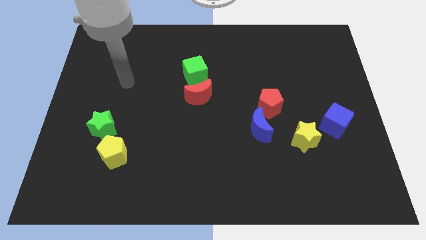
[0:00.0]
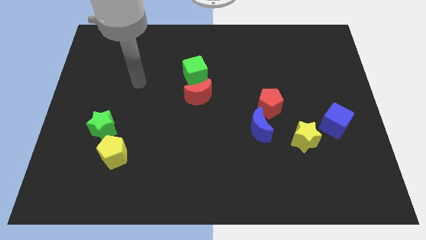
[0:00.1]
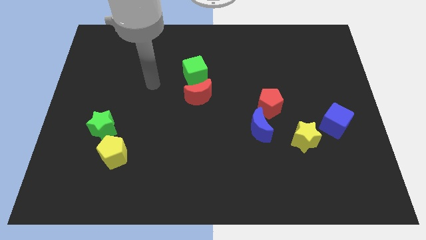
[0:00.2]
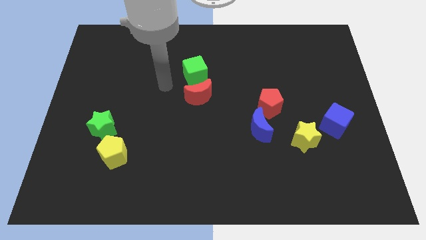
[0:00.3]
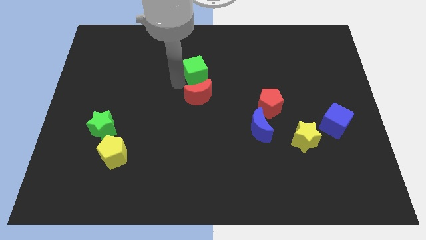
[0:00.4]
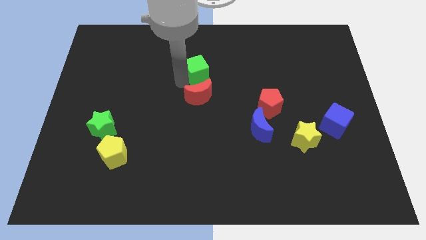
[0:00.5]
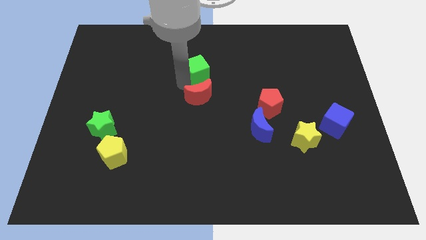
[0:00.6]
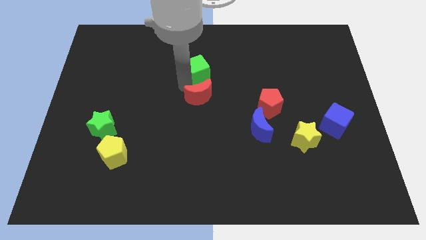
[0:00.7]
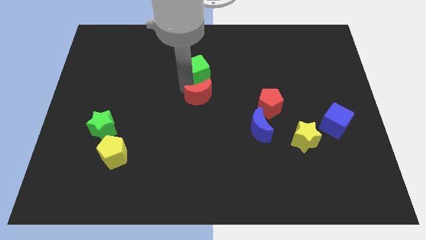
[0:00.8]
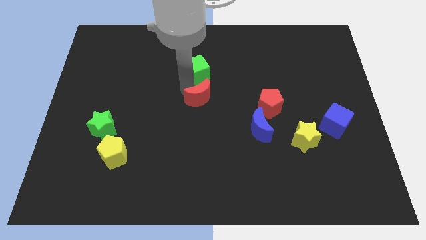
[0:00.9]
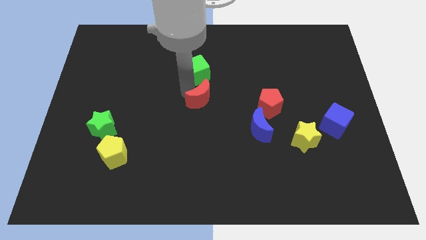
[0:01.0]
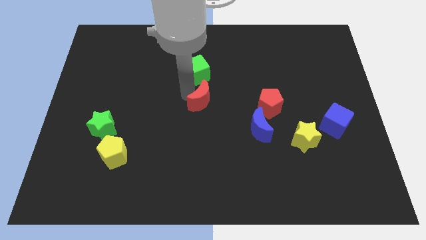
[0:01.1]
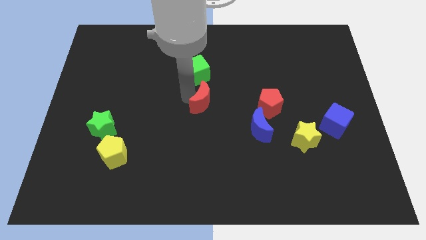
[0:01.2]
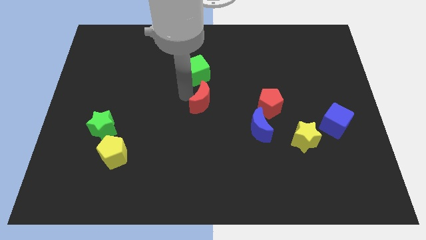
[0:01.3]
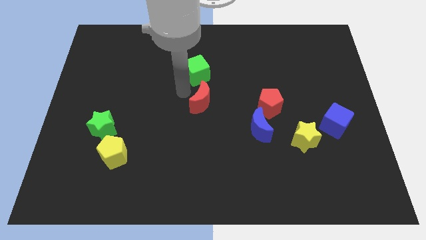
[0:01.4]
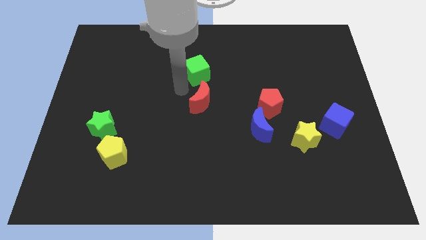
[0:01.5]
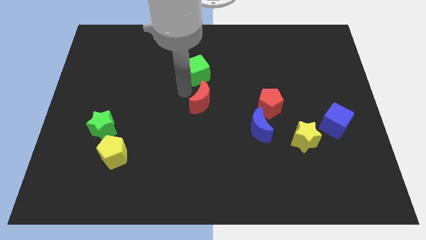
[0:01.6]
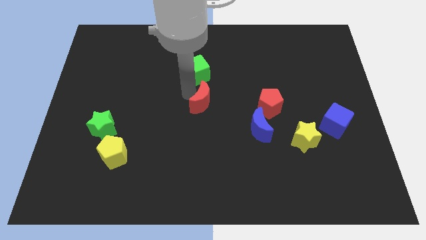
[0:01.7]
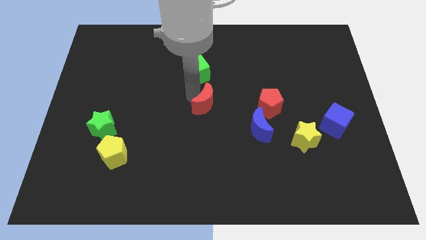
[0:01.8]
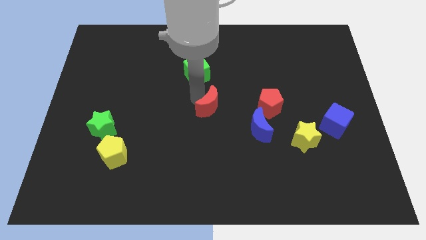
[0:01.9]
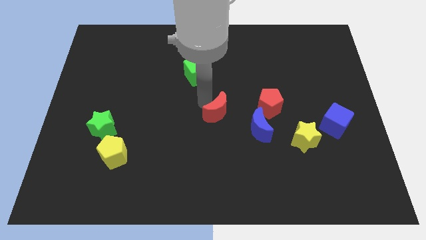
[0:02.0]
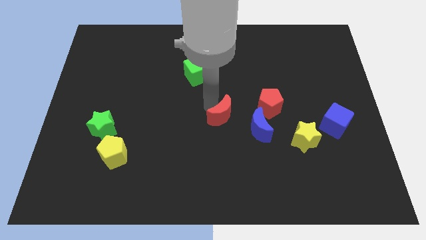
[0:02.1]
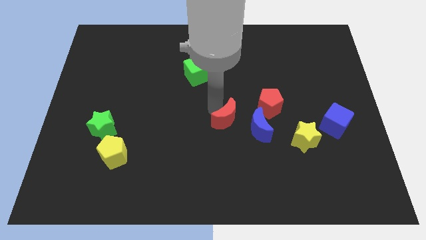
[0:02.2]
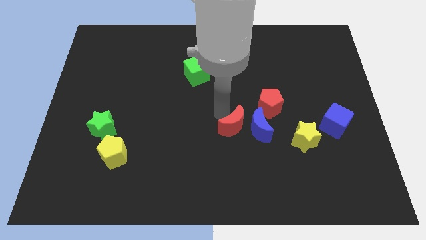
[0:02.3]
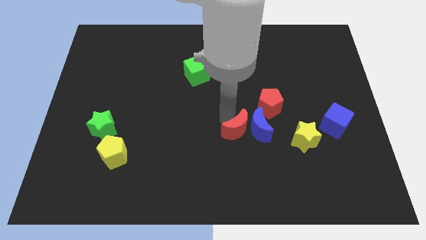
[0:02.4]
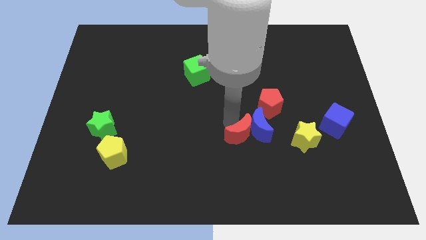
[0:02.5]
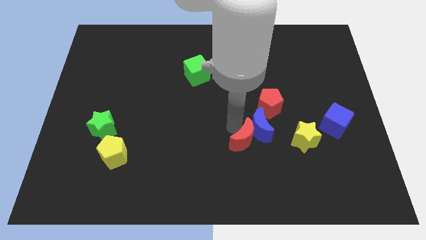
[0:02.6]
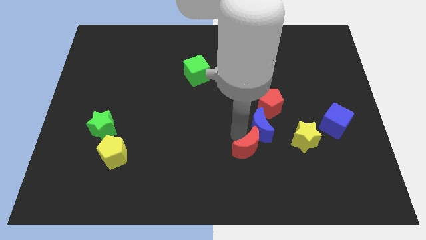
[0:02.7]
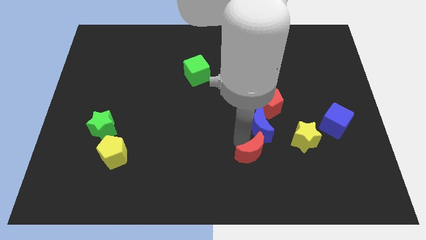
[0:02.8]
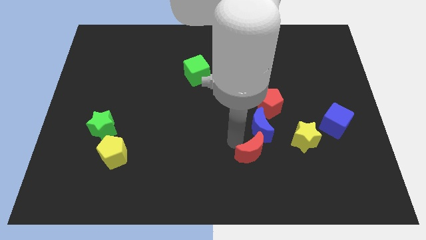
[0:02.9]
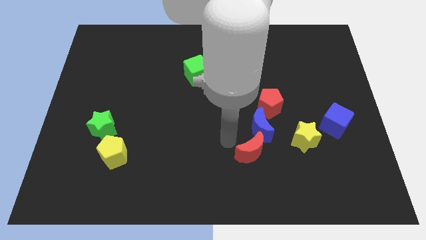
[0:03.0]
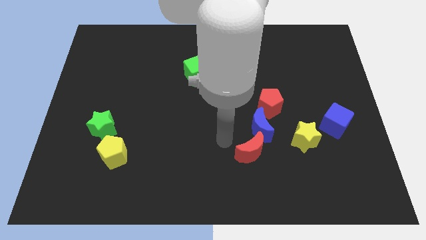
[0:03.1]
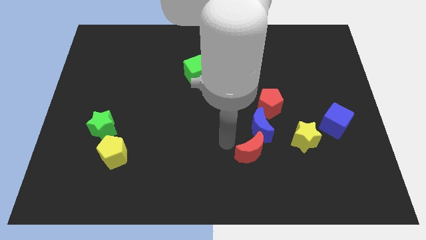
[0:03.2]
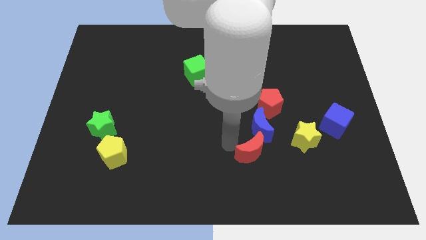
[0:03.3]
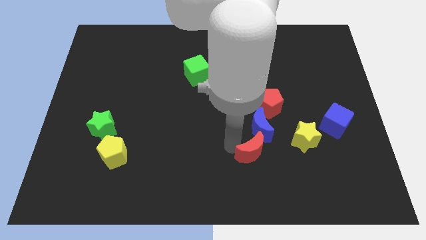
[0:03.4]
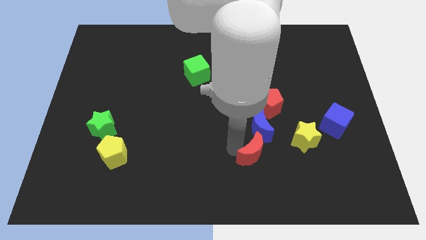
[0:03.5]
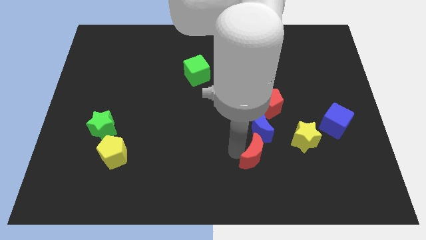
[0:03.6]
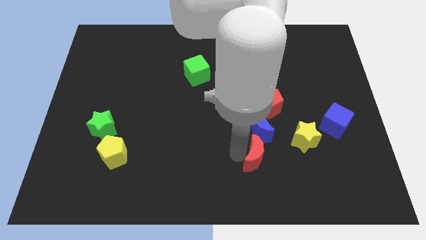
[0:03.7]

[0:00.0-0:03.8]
slide the red moon downwards and to the right

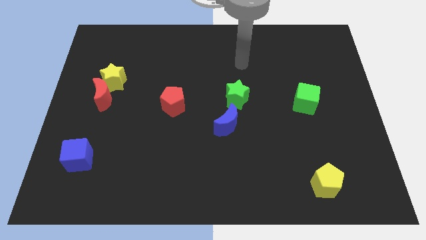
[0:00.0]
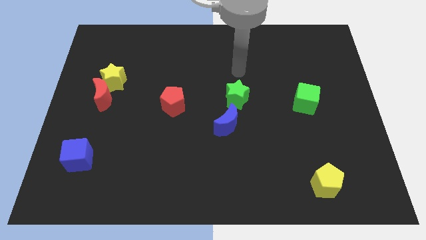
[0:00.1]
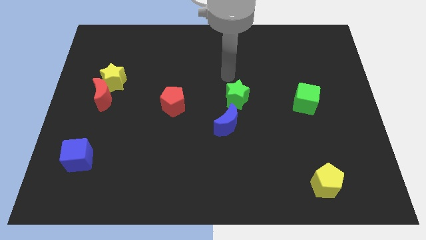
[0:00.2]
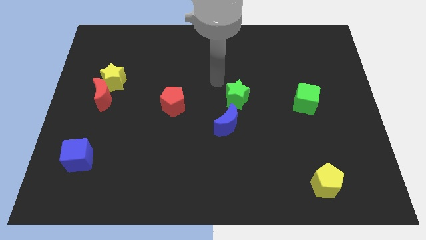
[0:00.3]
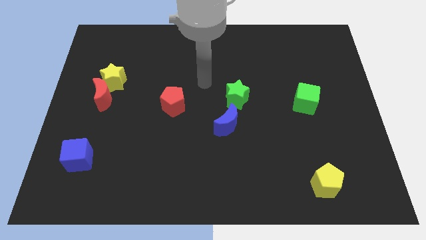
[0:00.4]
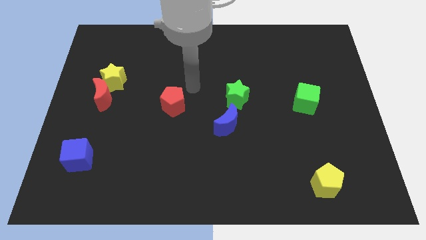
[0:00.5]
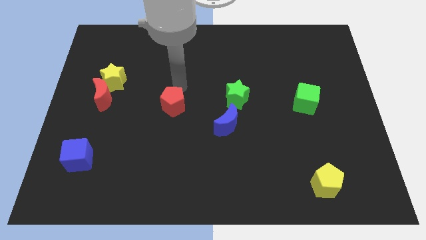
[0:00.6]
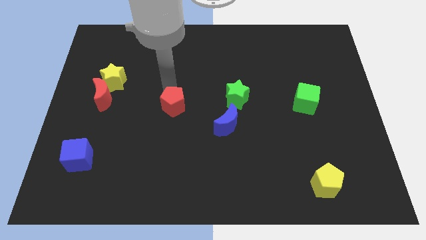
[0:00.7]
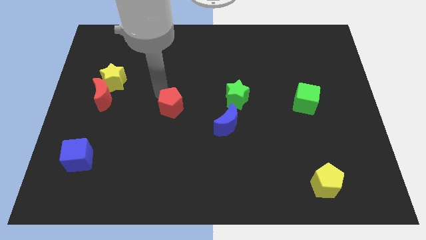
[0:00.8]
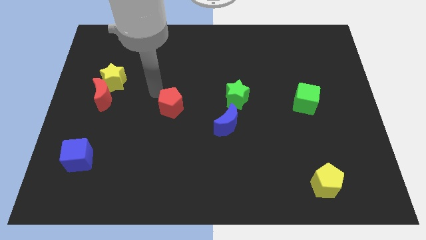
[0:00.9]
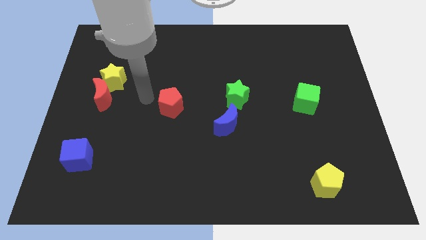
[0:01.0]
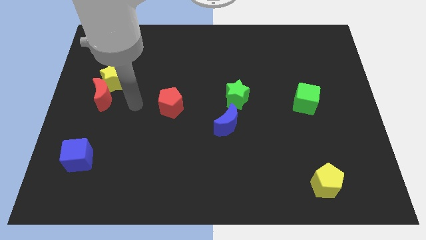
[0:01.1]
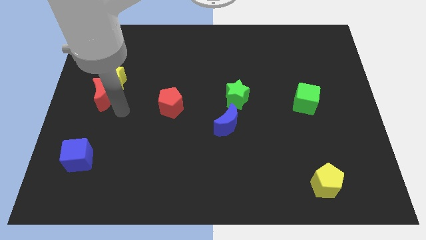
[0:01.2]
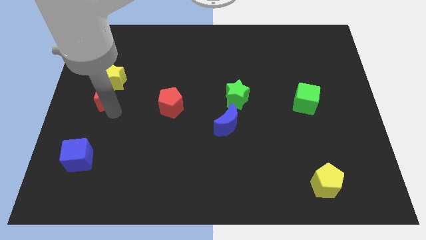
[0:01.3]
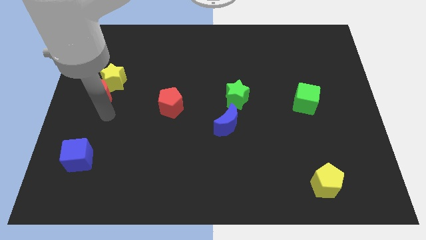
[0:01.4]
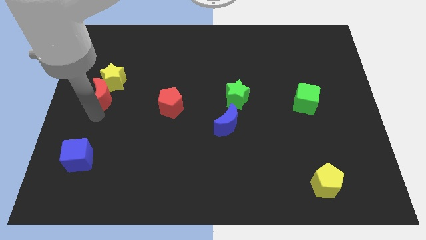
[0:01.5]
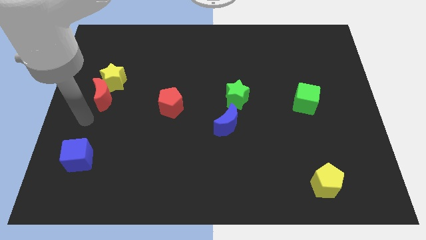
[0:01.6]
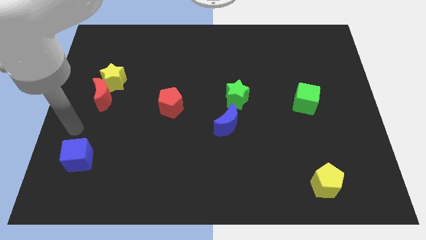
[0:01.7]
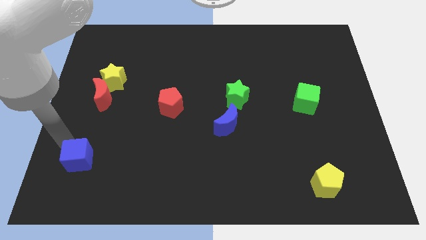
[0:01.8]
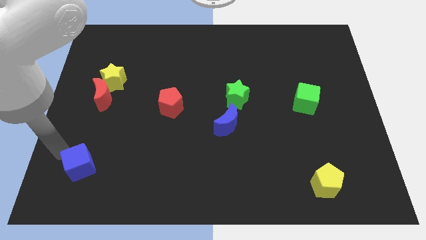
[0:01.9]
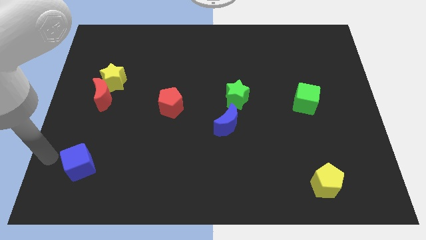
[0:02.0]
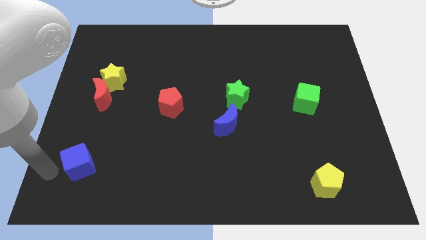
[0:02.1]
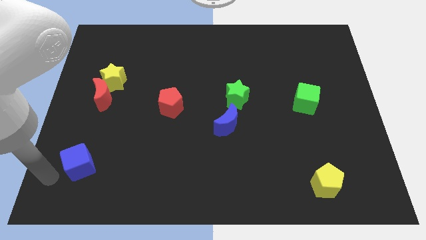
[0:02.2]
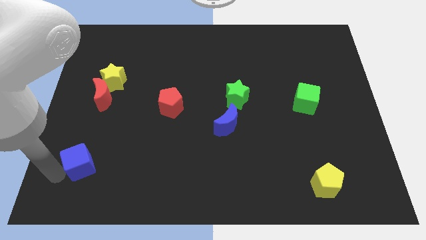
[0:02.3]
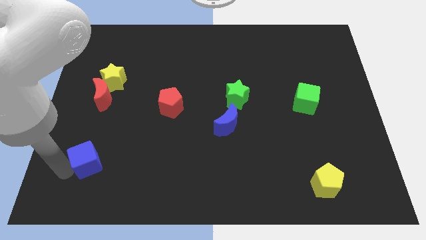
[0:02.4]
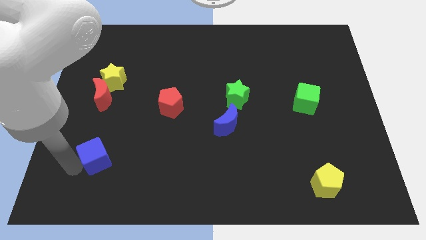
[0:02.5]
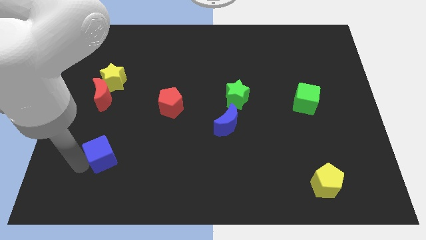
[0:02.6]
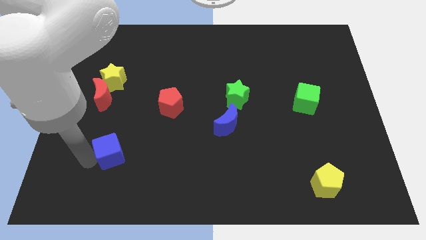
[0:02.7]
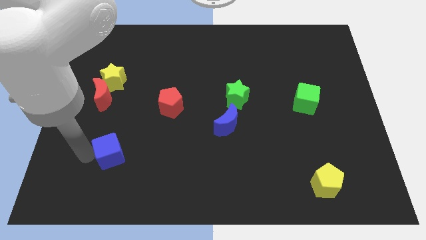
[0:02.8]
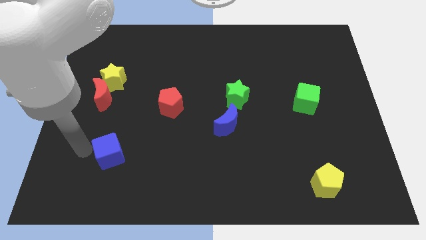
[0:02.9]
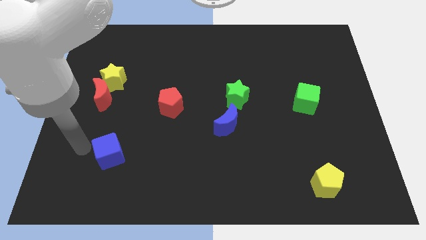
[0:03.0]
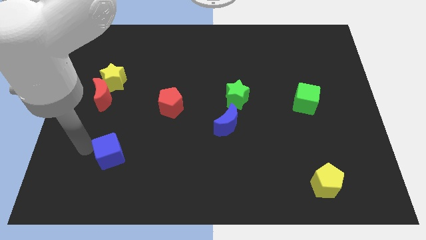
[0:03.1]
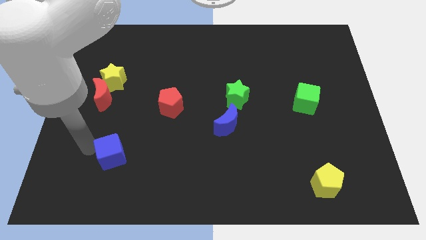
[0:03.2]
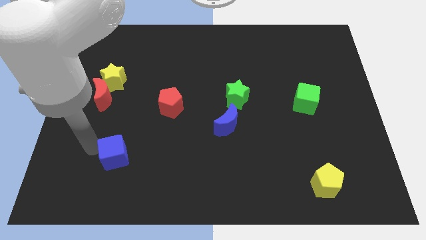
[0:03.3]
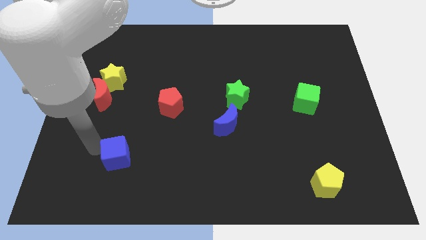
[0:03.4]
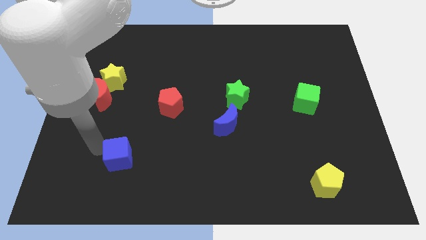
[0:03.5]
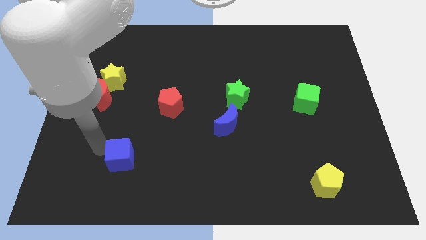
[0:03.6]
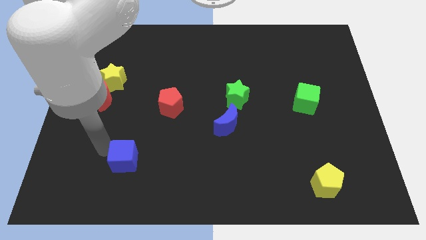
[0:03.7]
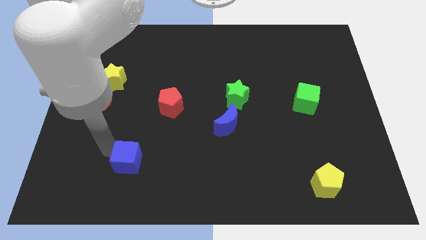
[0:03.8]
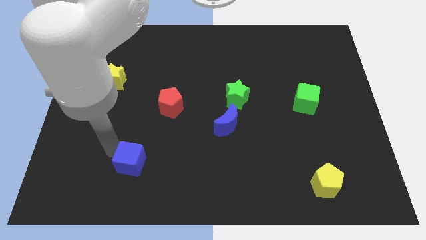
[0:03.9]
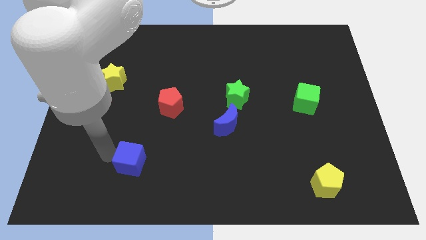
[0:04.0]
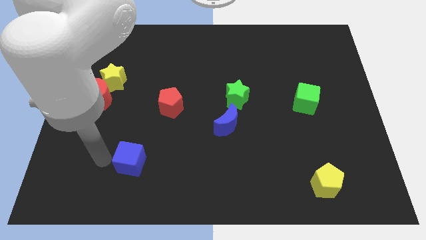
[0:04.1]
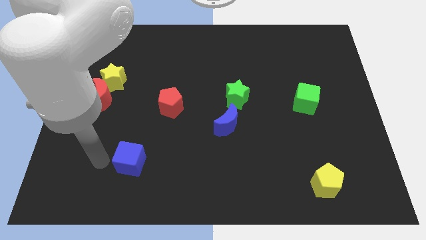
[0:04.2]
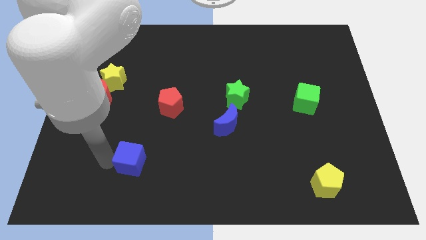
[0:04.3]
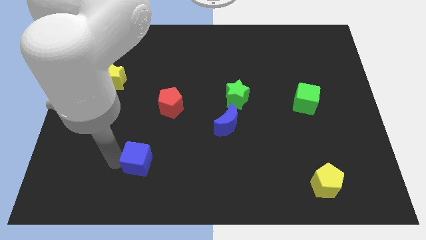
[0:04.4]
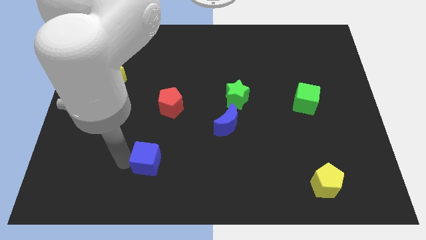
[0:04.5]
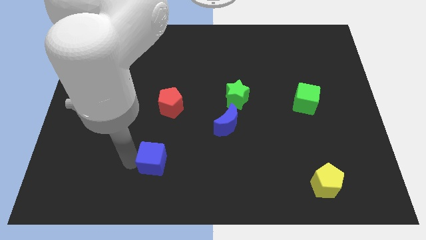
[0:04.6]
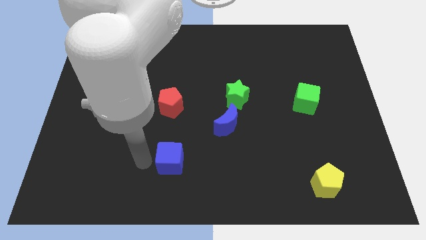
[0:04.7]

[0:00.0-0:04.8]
move the blue cube right
